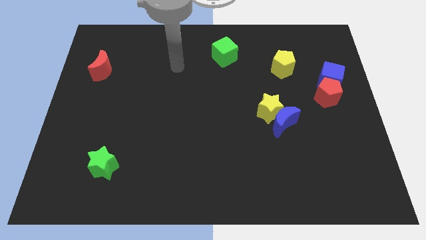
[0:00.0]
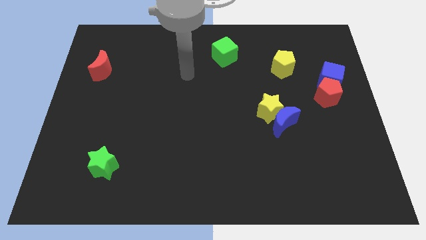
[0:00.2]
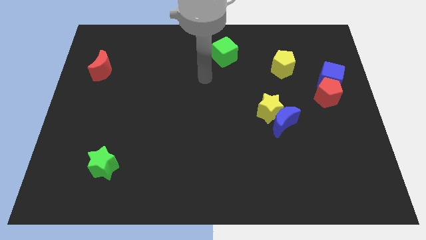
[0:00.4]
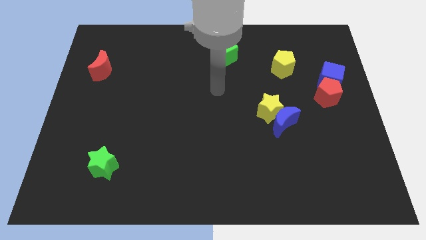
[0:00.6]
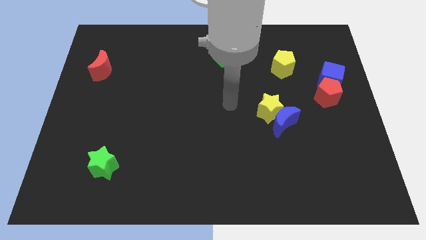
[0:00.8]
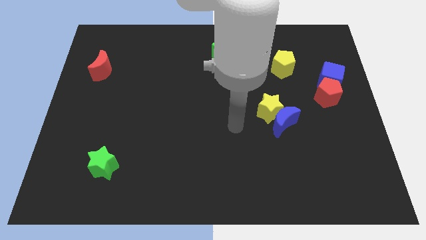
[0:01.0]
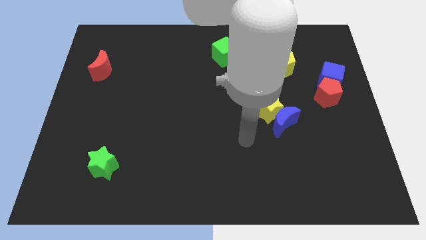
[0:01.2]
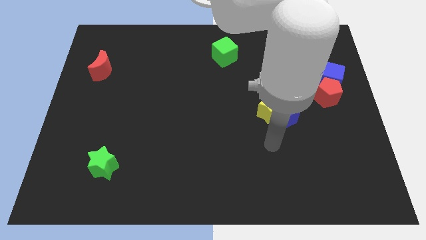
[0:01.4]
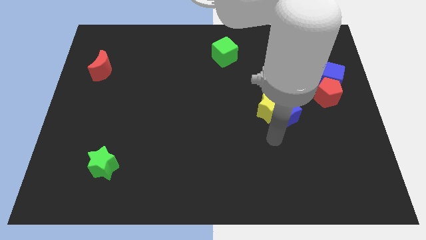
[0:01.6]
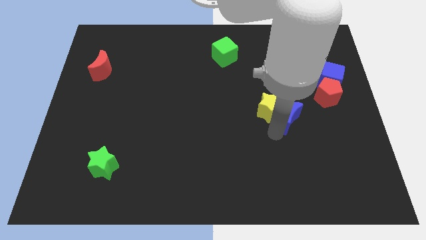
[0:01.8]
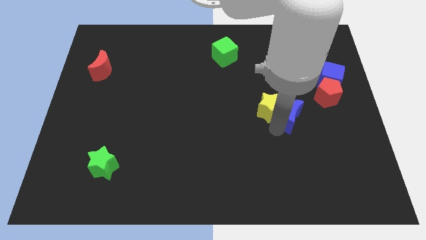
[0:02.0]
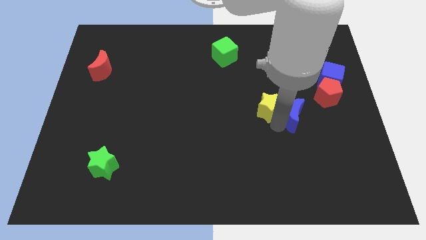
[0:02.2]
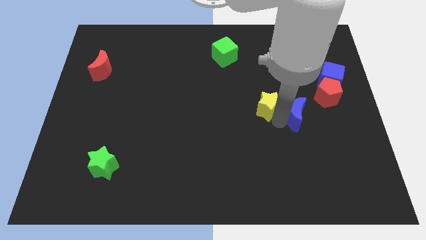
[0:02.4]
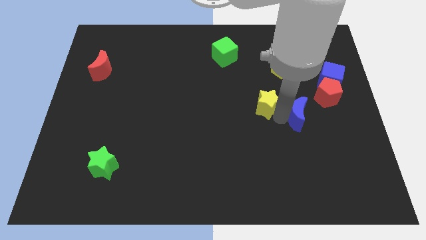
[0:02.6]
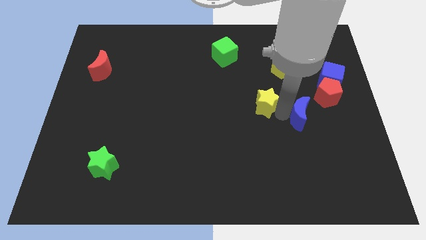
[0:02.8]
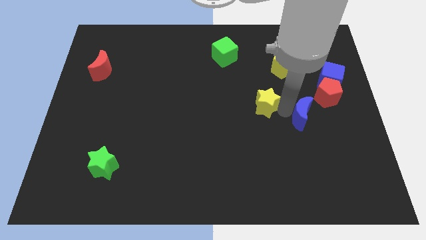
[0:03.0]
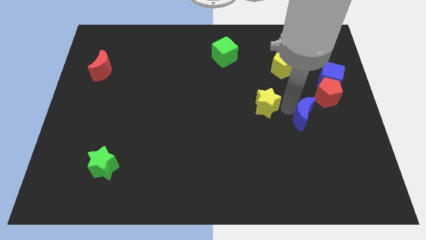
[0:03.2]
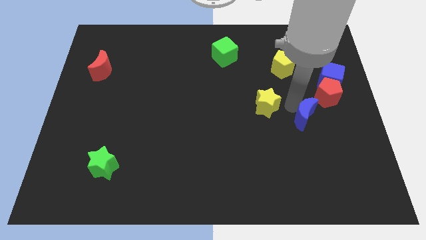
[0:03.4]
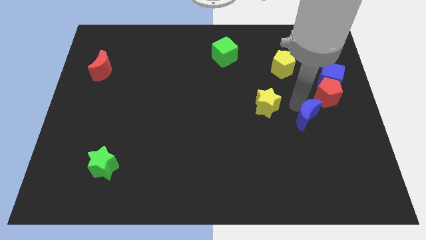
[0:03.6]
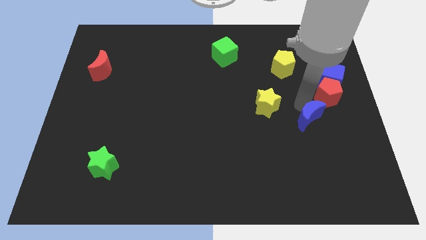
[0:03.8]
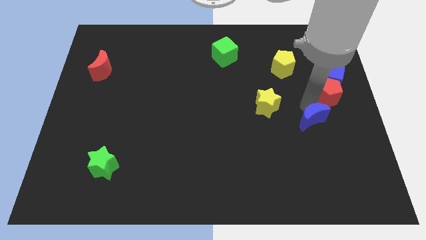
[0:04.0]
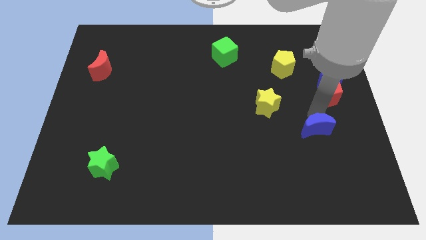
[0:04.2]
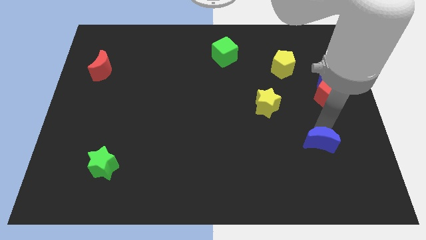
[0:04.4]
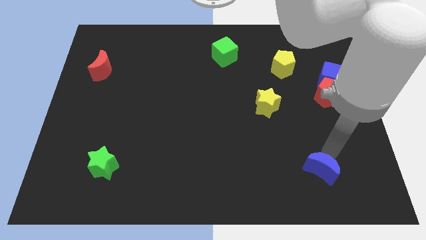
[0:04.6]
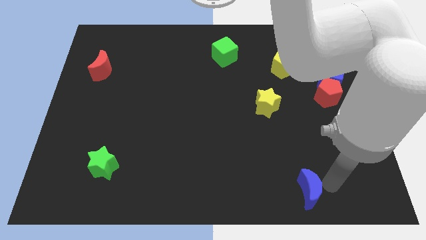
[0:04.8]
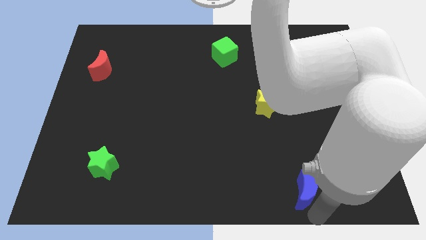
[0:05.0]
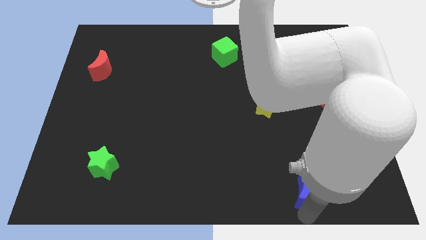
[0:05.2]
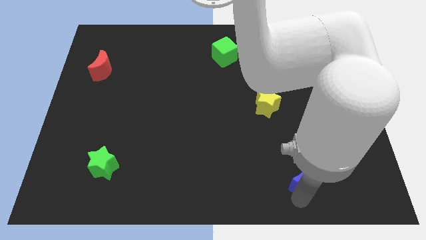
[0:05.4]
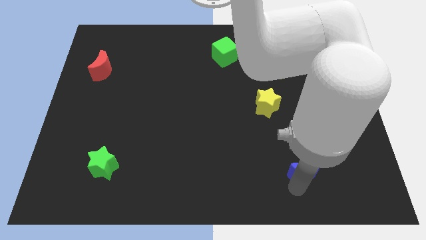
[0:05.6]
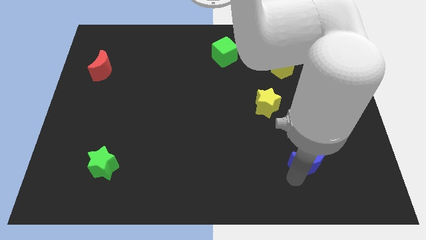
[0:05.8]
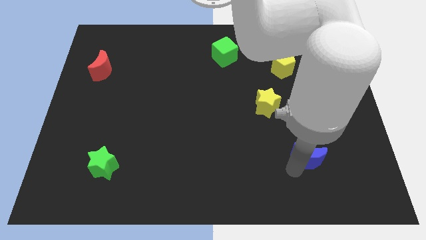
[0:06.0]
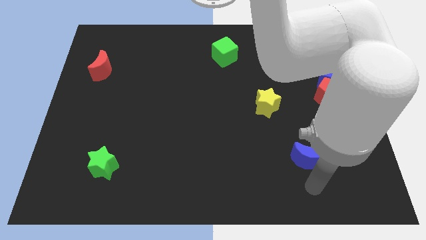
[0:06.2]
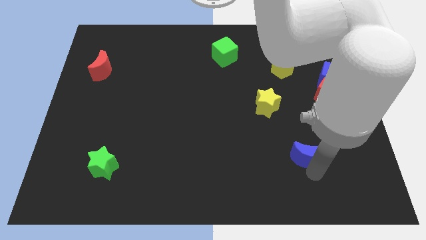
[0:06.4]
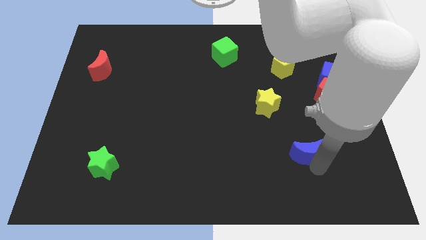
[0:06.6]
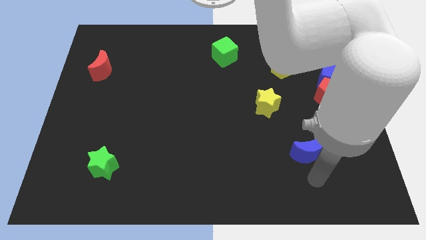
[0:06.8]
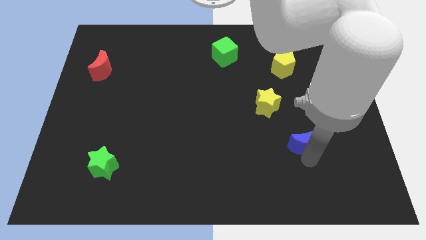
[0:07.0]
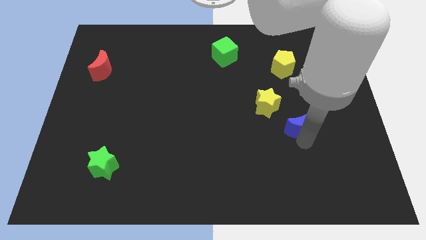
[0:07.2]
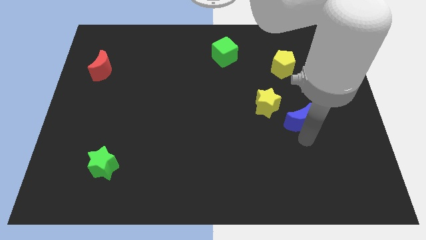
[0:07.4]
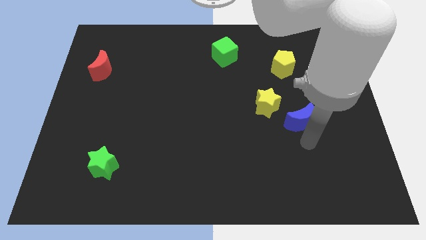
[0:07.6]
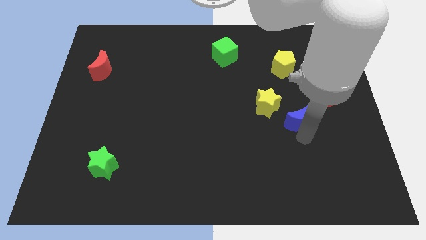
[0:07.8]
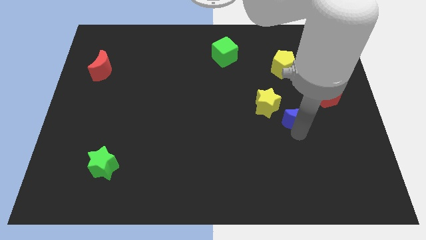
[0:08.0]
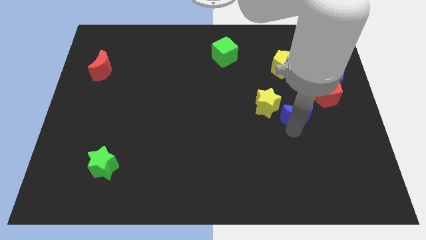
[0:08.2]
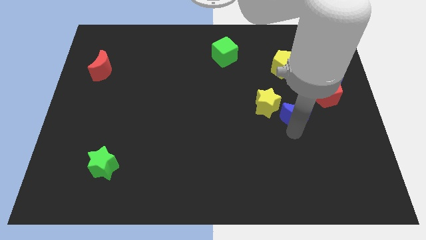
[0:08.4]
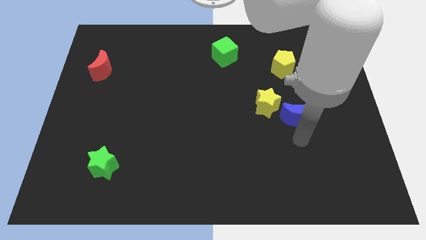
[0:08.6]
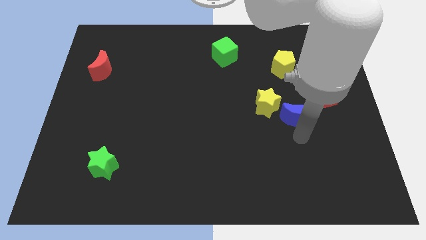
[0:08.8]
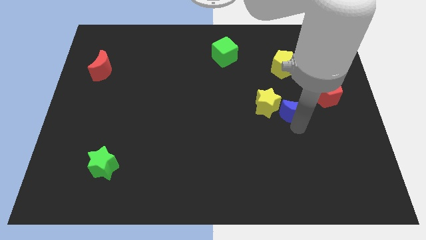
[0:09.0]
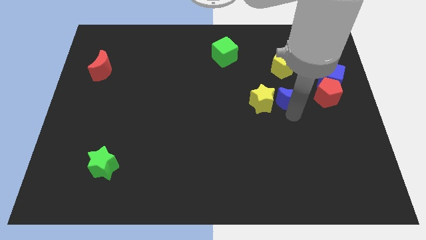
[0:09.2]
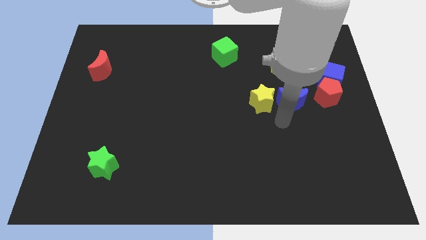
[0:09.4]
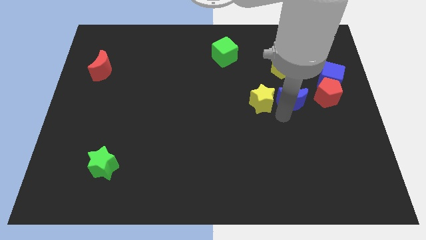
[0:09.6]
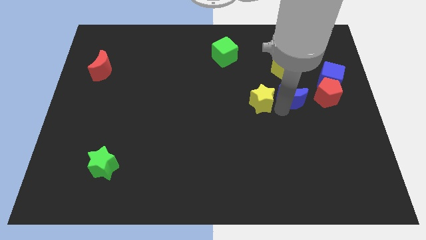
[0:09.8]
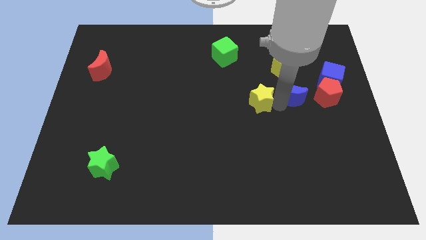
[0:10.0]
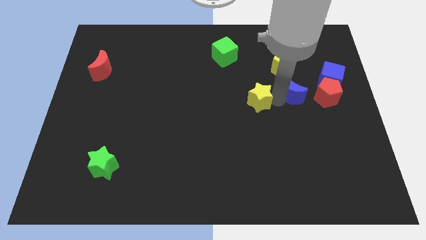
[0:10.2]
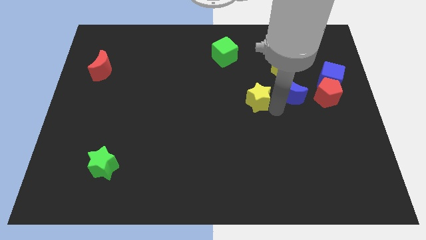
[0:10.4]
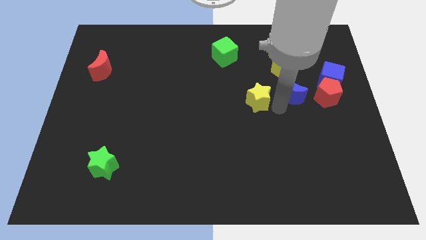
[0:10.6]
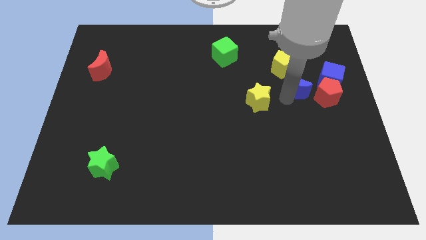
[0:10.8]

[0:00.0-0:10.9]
move the blue moon to the top left of the red pentagon
